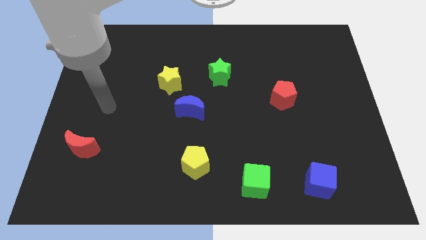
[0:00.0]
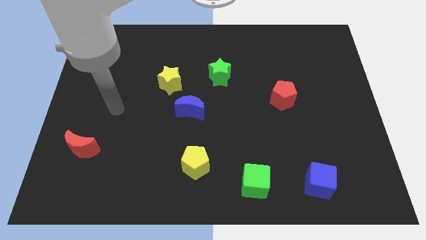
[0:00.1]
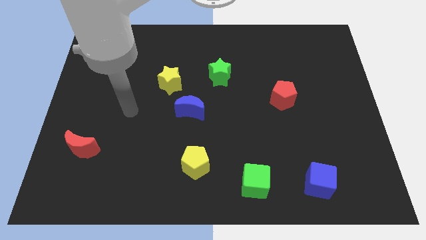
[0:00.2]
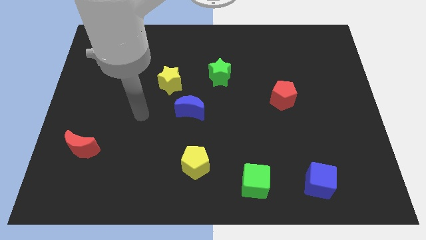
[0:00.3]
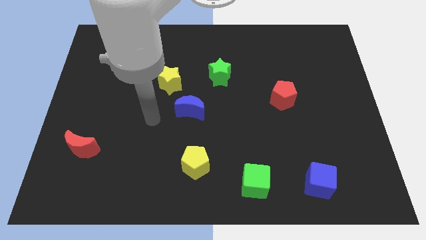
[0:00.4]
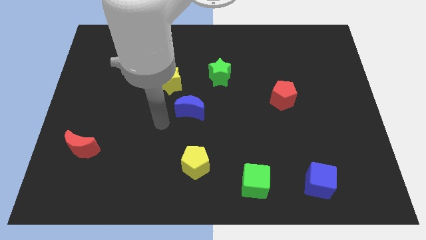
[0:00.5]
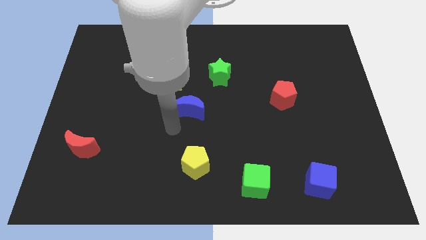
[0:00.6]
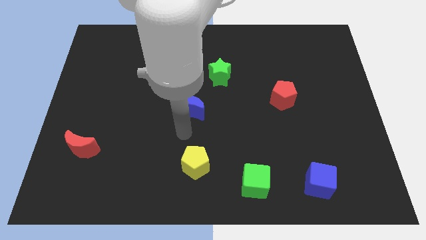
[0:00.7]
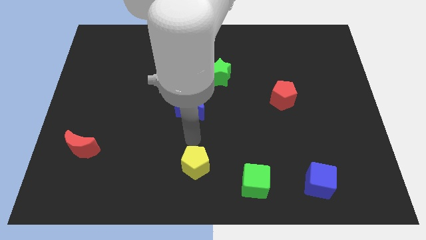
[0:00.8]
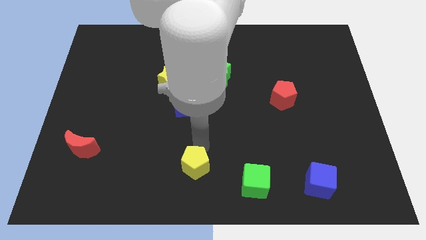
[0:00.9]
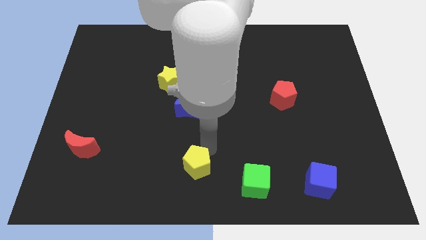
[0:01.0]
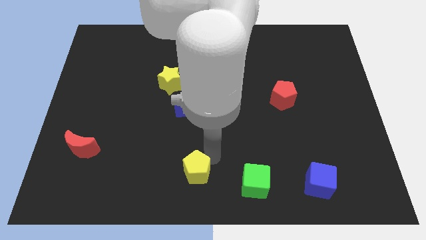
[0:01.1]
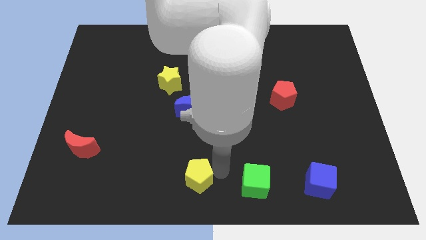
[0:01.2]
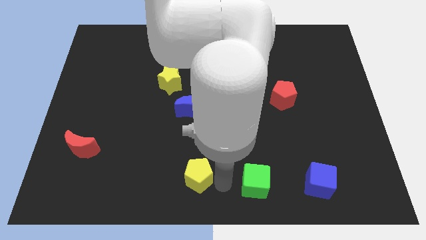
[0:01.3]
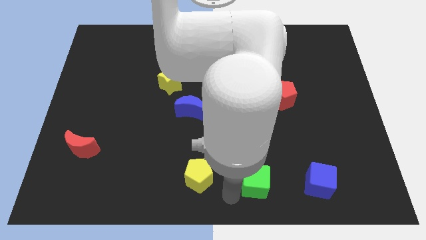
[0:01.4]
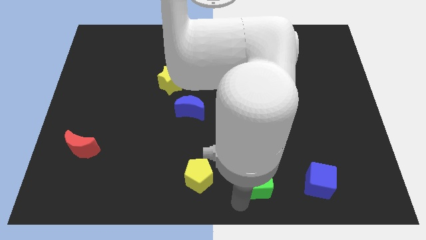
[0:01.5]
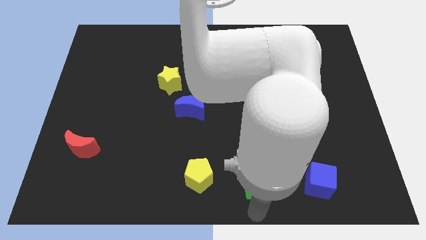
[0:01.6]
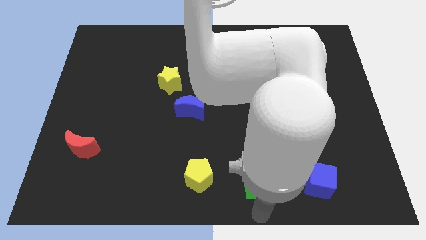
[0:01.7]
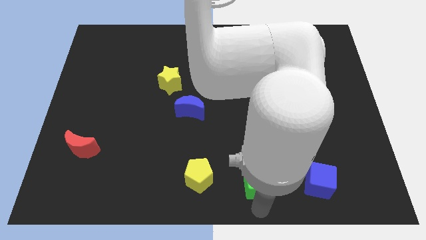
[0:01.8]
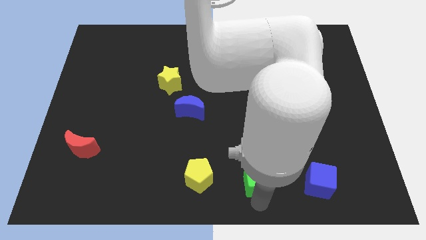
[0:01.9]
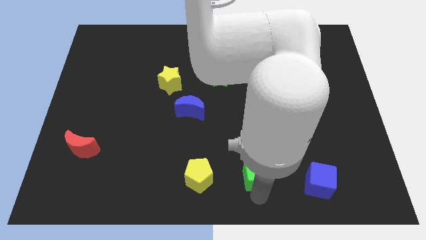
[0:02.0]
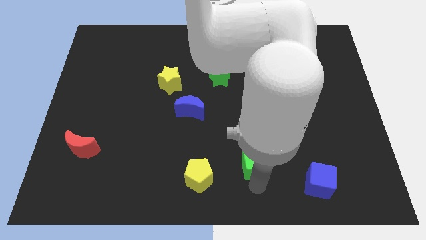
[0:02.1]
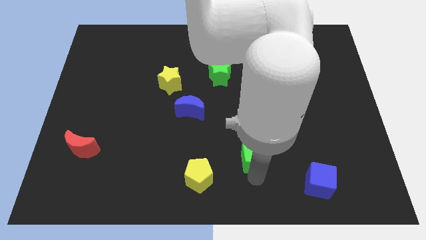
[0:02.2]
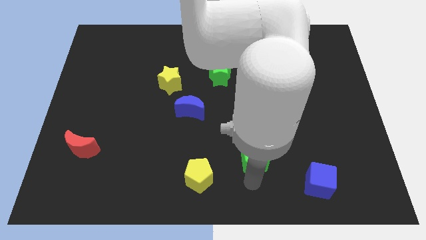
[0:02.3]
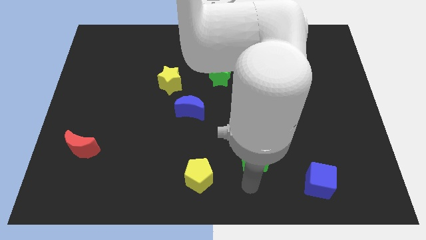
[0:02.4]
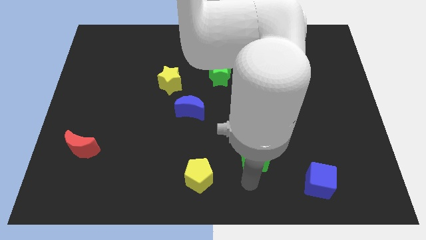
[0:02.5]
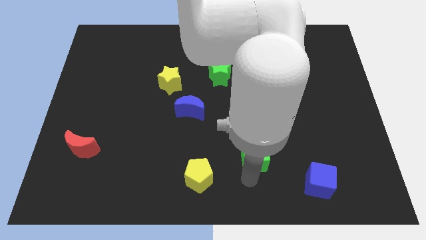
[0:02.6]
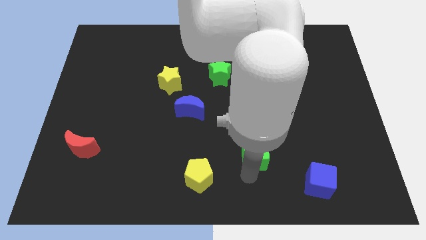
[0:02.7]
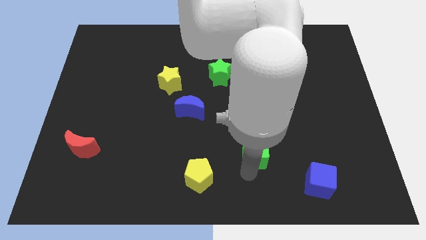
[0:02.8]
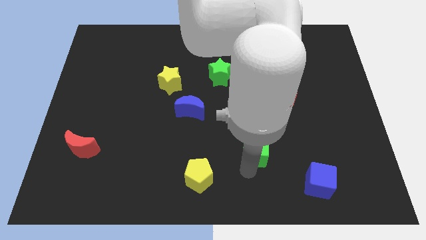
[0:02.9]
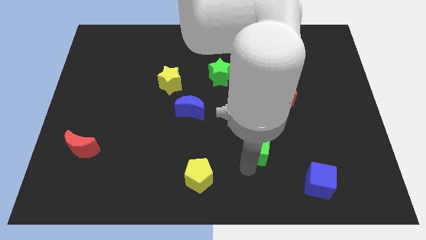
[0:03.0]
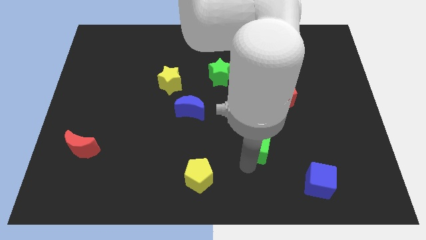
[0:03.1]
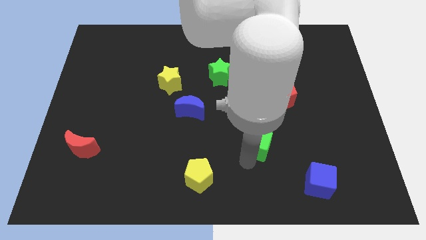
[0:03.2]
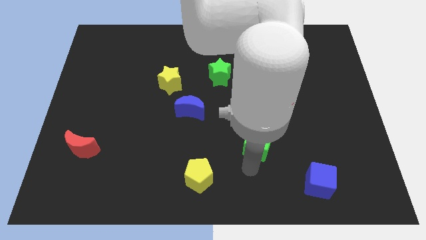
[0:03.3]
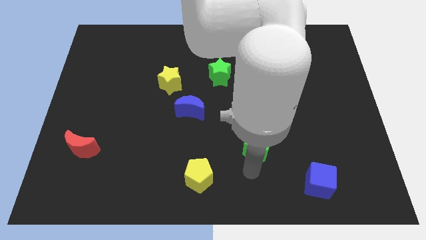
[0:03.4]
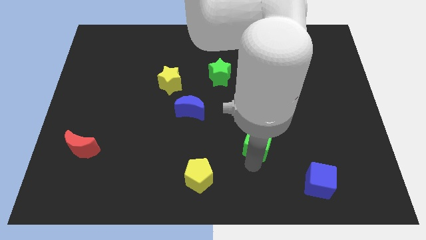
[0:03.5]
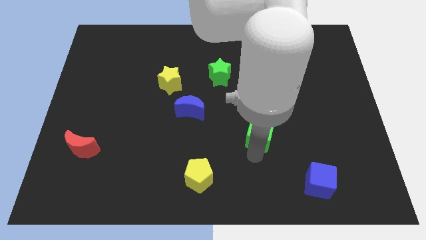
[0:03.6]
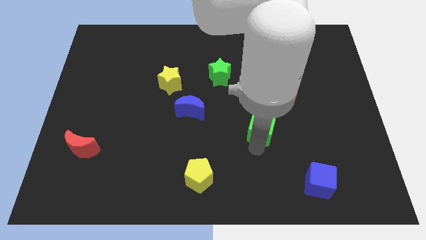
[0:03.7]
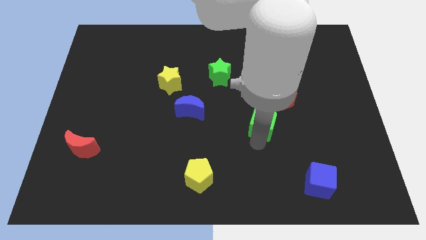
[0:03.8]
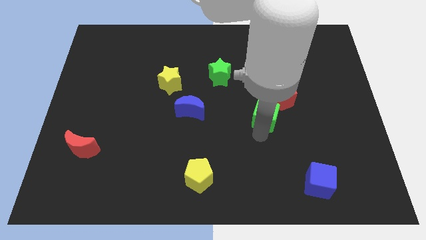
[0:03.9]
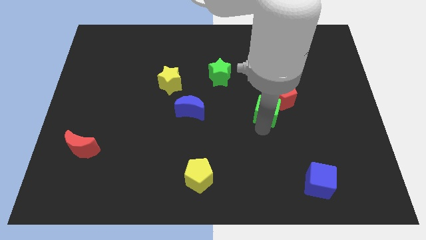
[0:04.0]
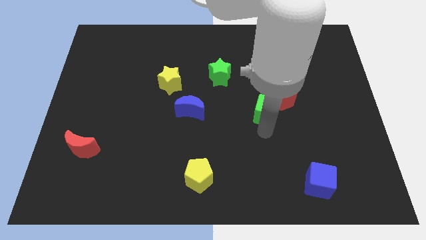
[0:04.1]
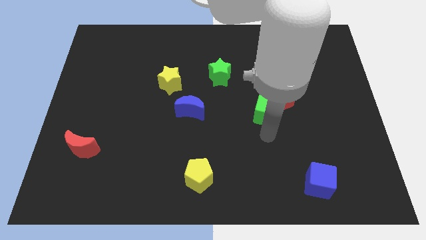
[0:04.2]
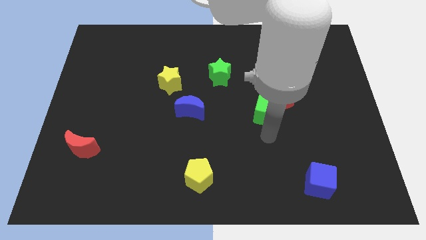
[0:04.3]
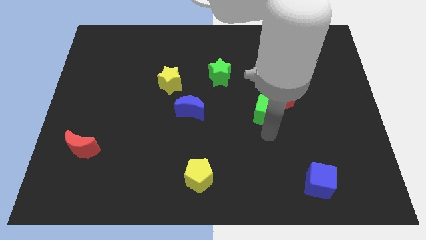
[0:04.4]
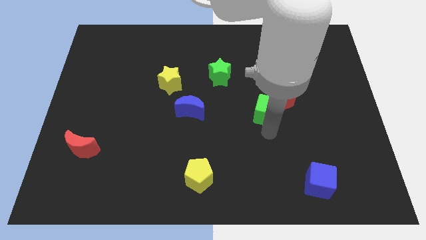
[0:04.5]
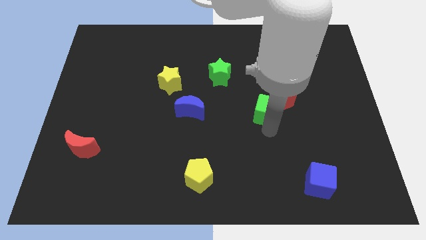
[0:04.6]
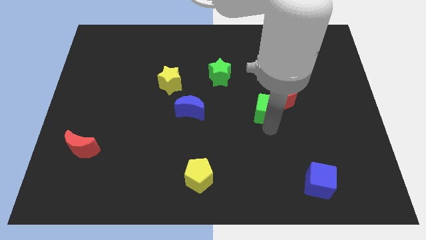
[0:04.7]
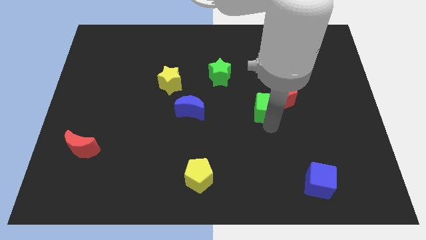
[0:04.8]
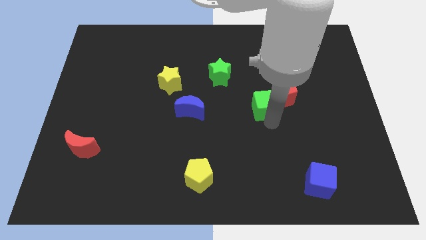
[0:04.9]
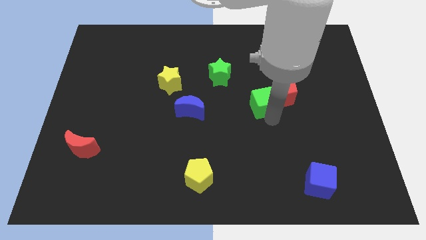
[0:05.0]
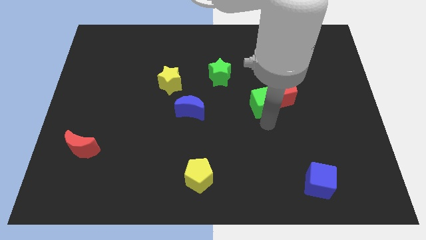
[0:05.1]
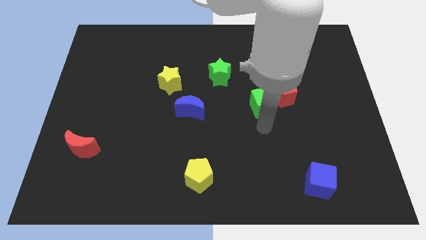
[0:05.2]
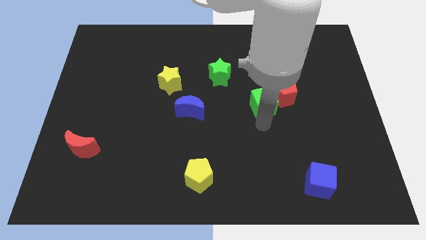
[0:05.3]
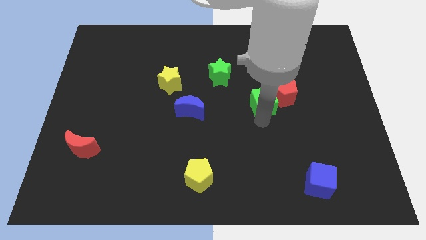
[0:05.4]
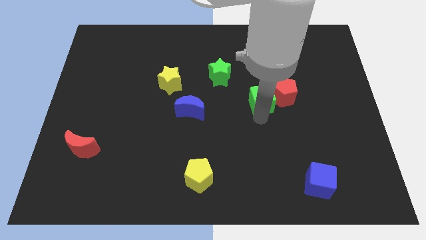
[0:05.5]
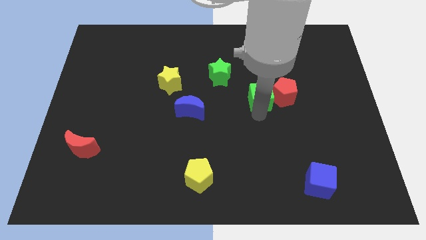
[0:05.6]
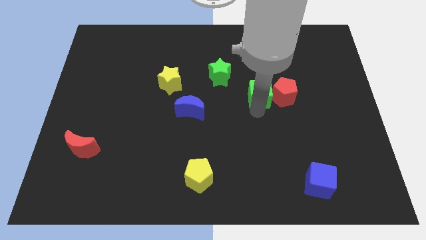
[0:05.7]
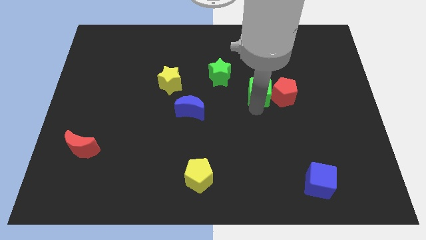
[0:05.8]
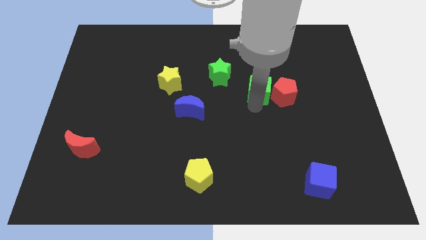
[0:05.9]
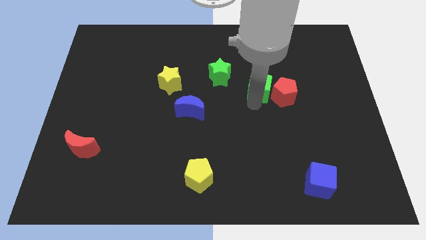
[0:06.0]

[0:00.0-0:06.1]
push the green cube just right of the green star

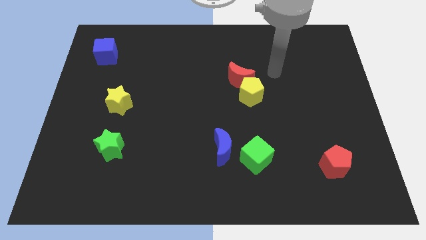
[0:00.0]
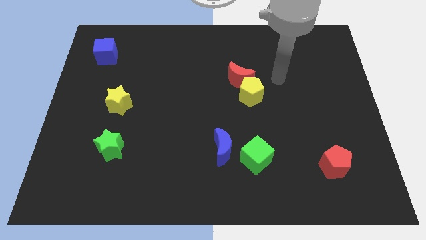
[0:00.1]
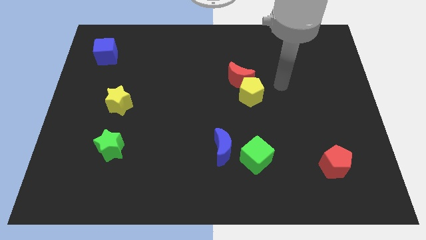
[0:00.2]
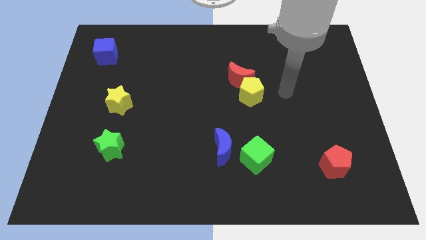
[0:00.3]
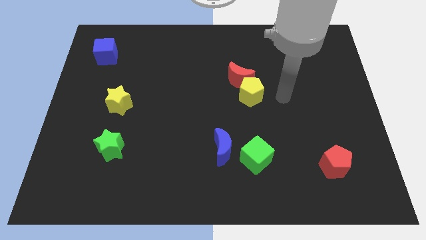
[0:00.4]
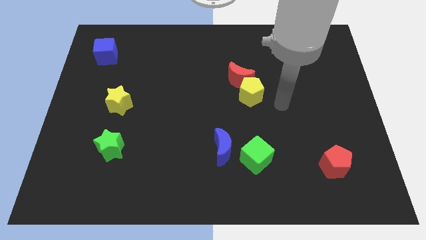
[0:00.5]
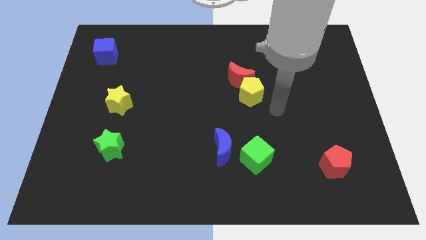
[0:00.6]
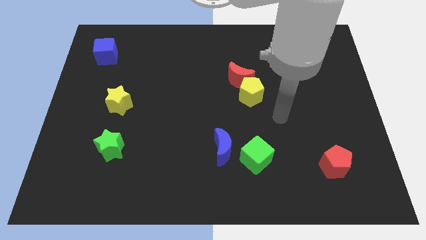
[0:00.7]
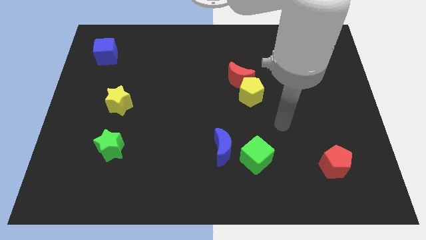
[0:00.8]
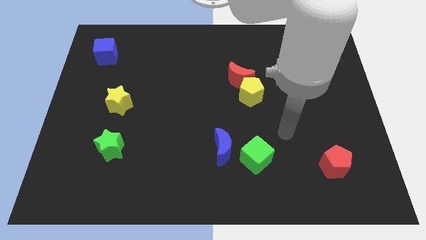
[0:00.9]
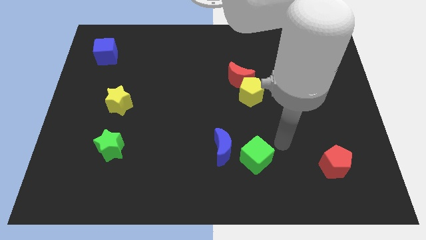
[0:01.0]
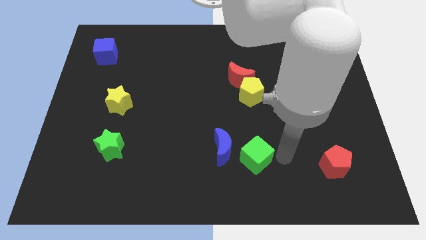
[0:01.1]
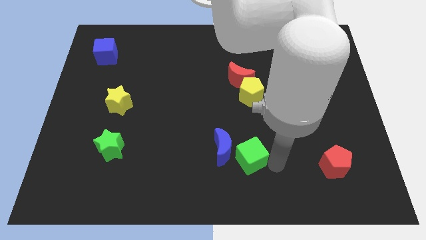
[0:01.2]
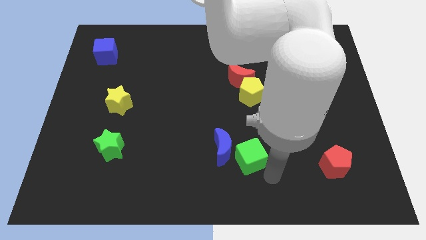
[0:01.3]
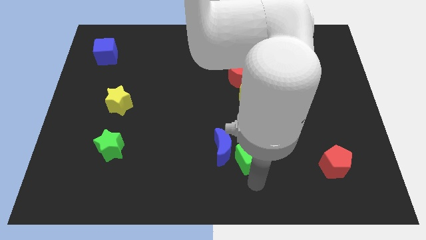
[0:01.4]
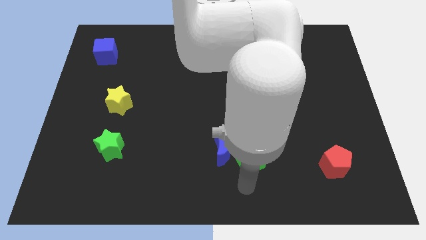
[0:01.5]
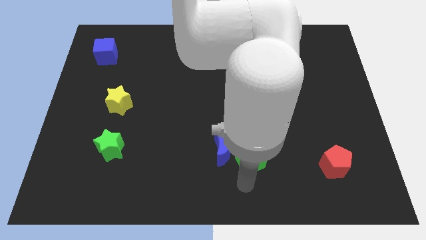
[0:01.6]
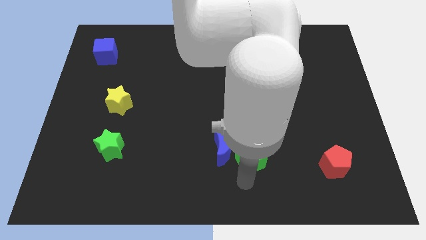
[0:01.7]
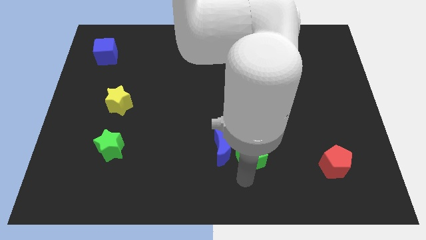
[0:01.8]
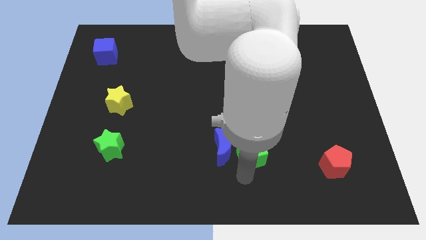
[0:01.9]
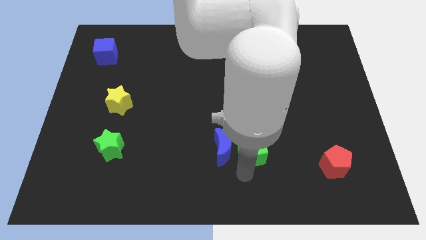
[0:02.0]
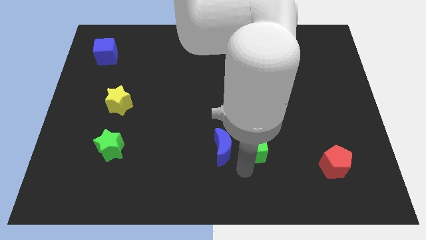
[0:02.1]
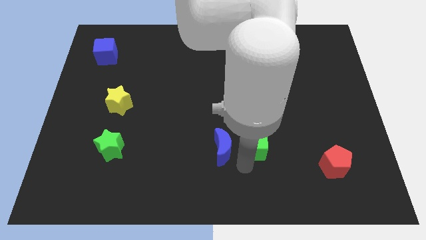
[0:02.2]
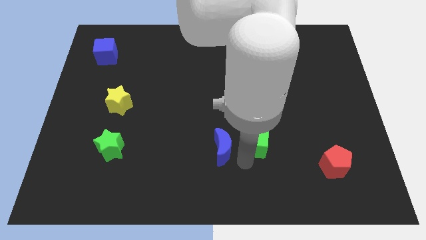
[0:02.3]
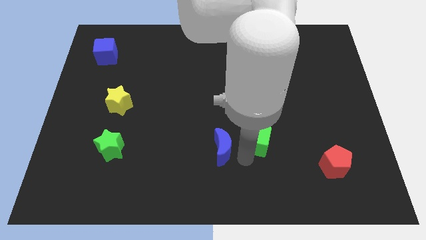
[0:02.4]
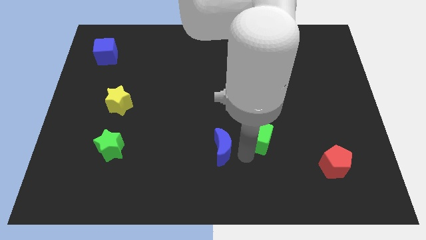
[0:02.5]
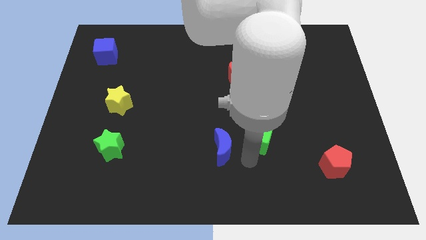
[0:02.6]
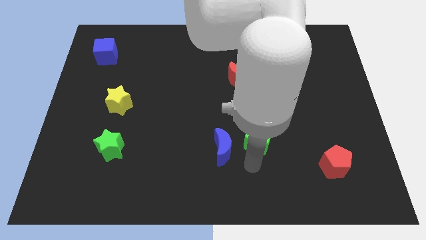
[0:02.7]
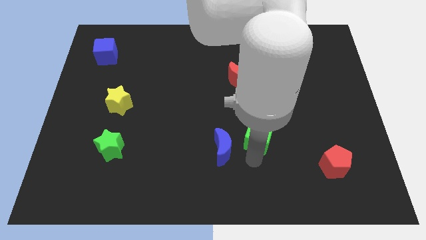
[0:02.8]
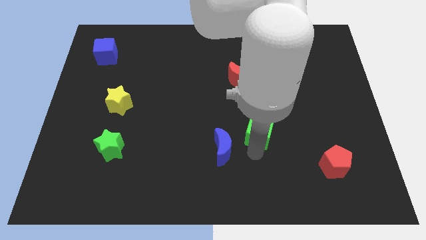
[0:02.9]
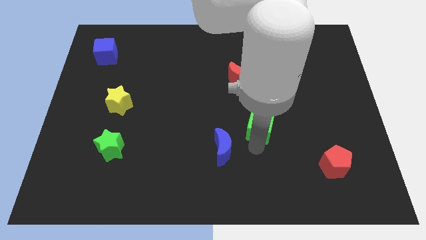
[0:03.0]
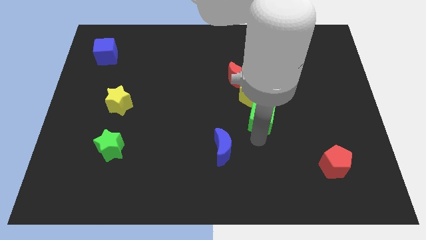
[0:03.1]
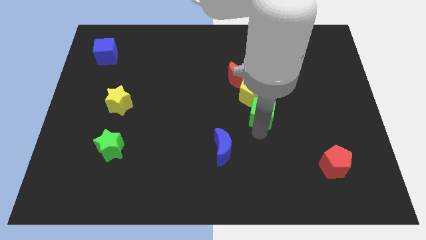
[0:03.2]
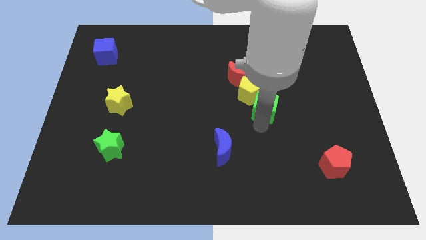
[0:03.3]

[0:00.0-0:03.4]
put the green cube to the bottom right side of the red moon
